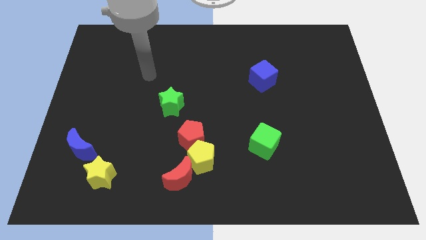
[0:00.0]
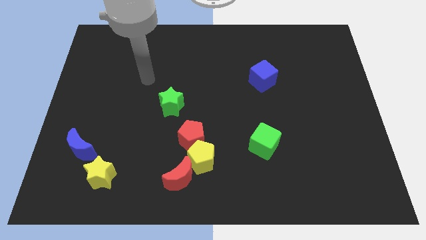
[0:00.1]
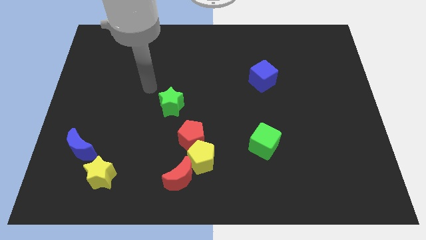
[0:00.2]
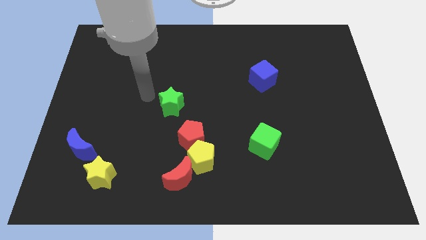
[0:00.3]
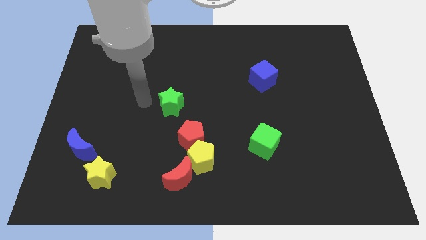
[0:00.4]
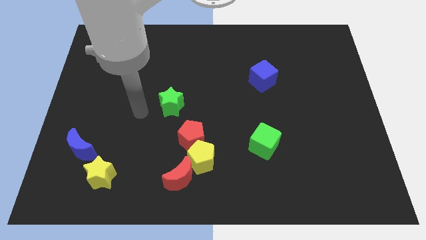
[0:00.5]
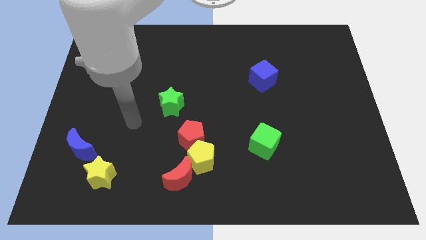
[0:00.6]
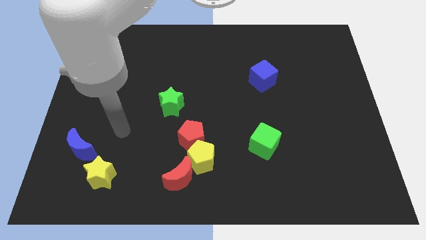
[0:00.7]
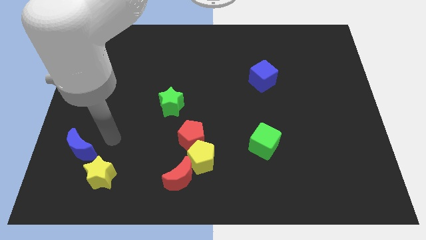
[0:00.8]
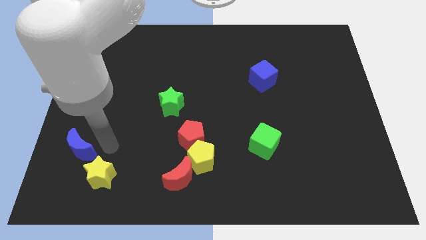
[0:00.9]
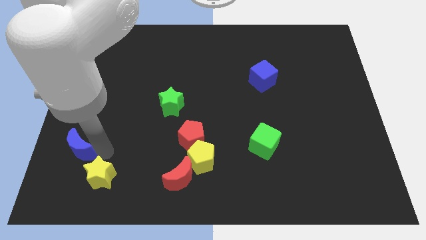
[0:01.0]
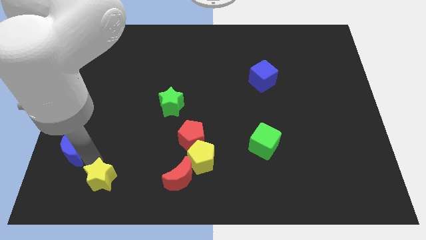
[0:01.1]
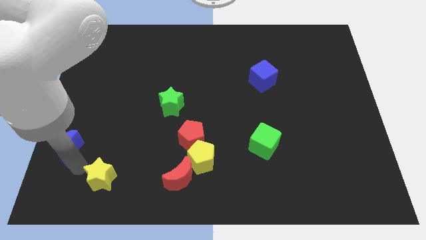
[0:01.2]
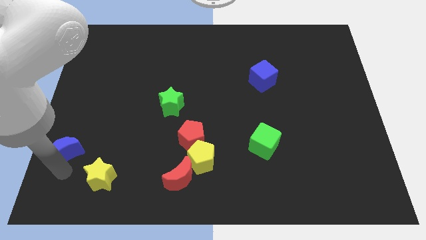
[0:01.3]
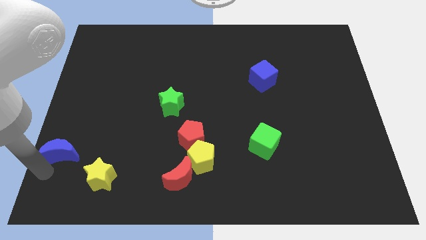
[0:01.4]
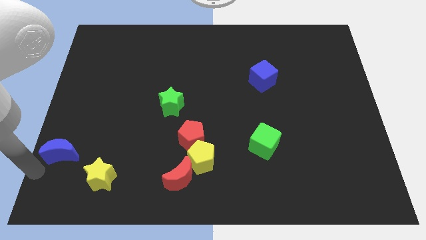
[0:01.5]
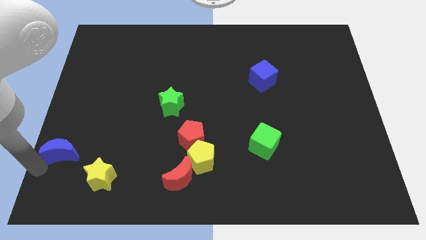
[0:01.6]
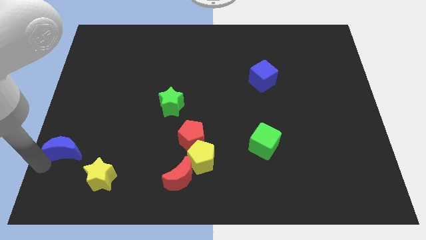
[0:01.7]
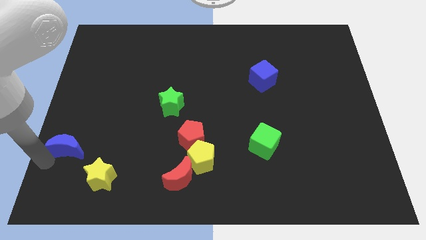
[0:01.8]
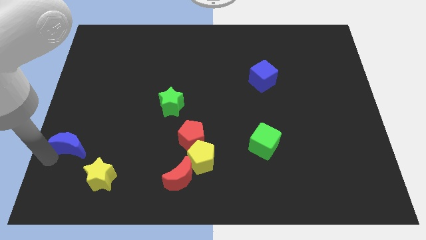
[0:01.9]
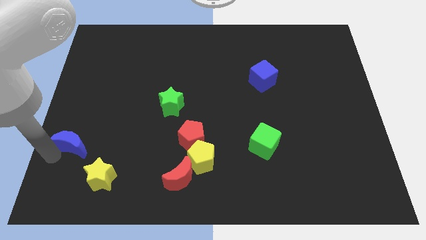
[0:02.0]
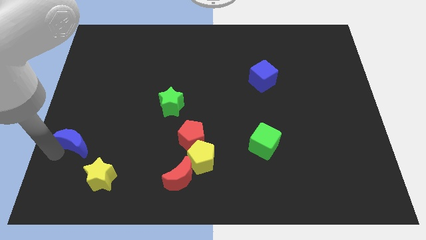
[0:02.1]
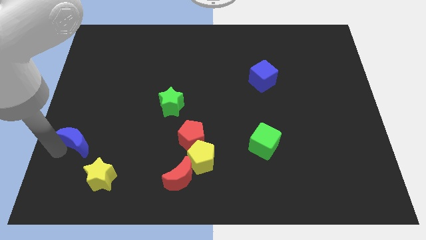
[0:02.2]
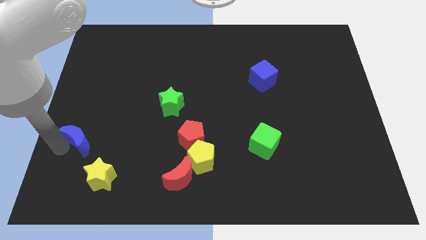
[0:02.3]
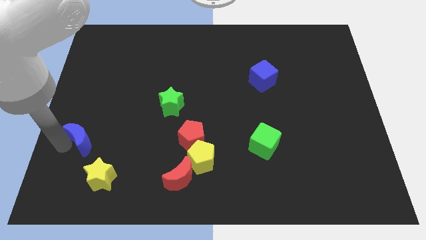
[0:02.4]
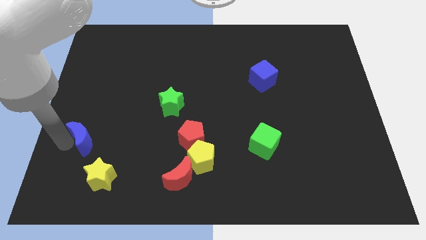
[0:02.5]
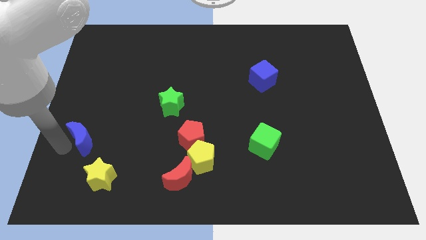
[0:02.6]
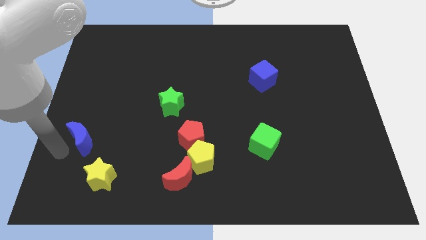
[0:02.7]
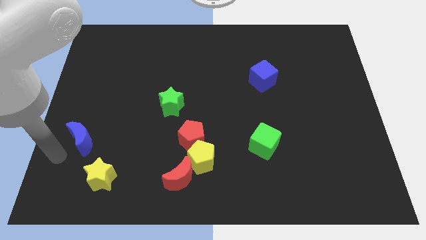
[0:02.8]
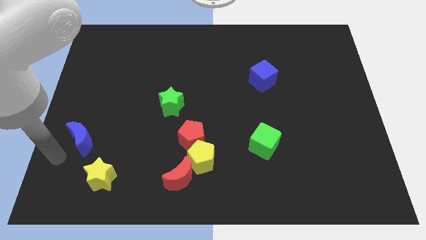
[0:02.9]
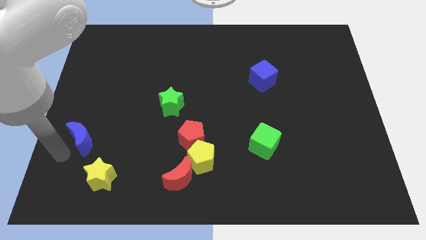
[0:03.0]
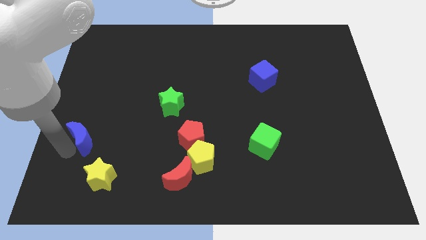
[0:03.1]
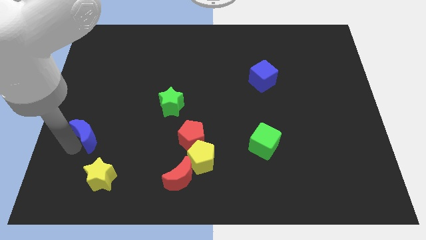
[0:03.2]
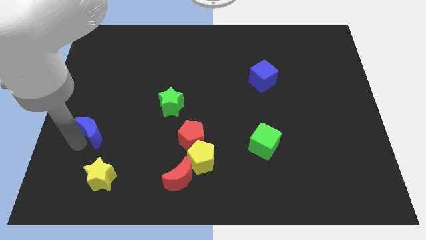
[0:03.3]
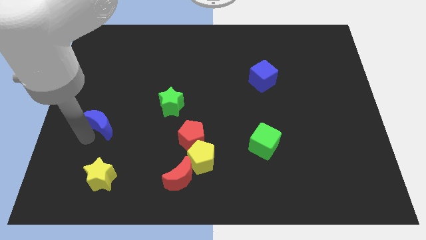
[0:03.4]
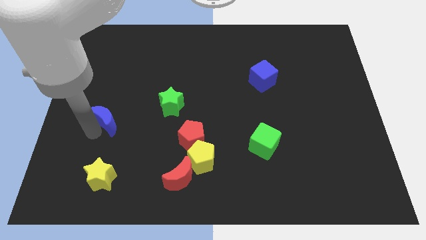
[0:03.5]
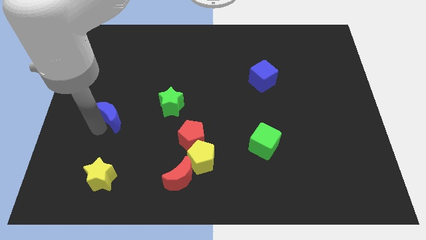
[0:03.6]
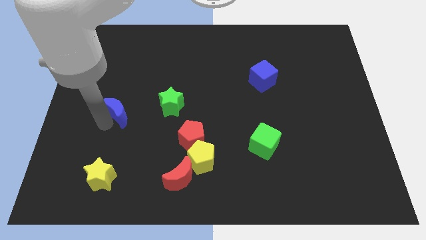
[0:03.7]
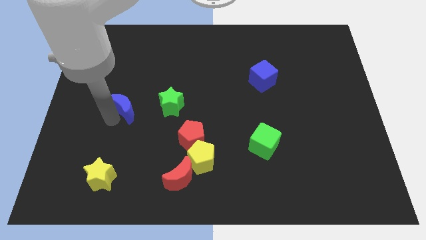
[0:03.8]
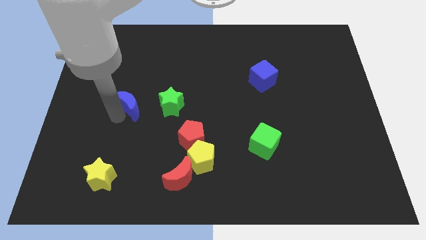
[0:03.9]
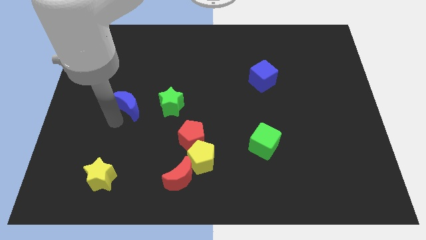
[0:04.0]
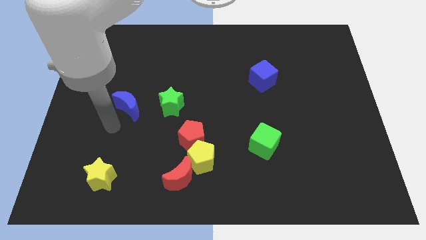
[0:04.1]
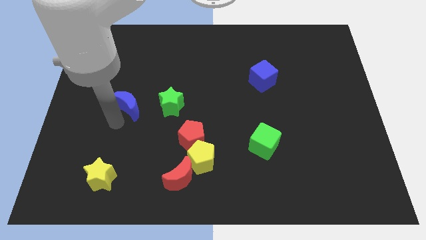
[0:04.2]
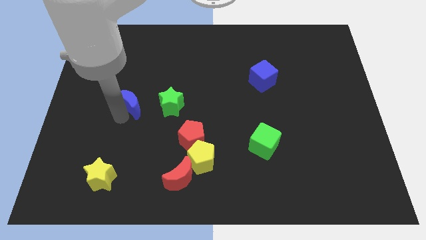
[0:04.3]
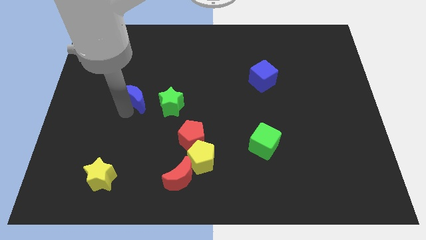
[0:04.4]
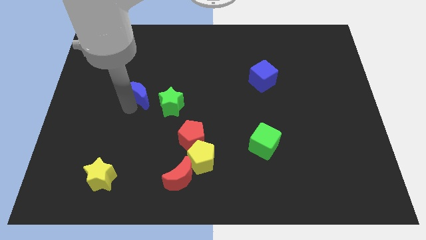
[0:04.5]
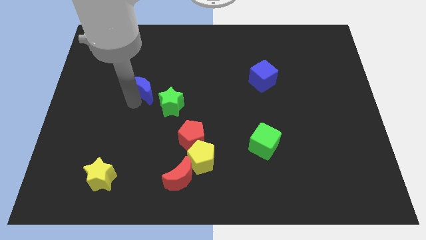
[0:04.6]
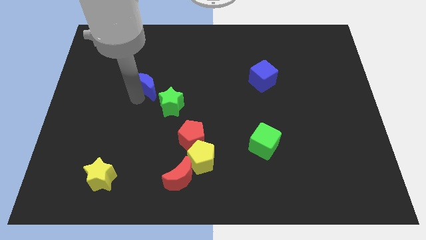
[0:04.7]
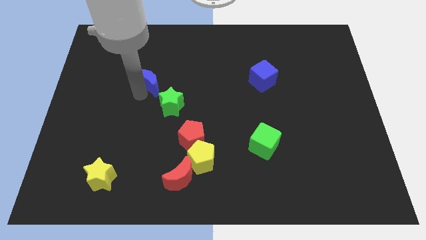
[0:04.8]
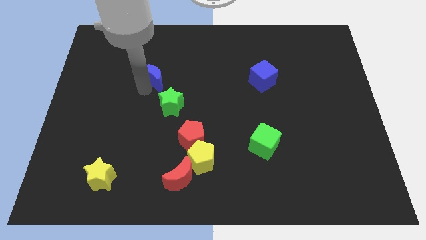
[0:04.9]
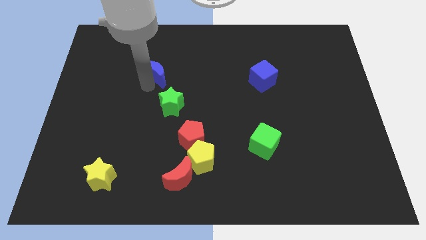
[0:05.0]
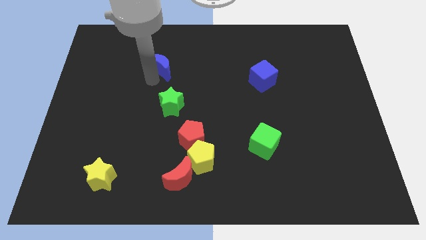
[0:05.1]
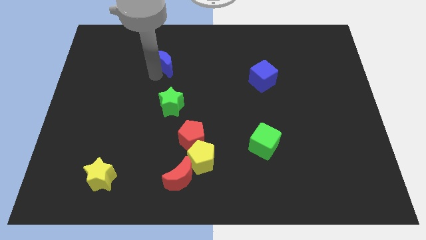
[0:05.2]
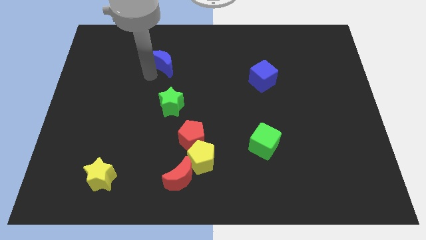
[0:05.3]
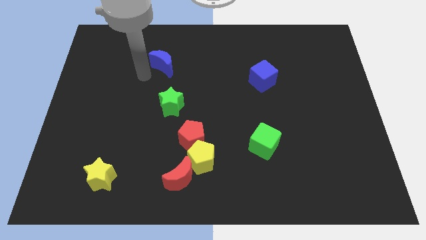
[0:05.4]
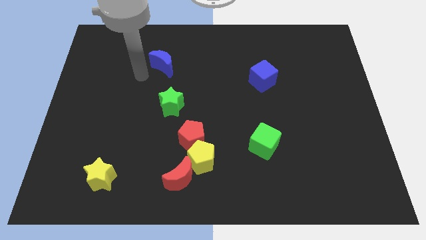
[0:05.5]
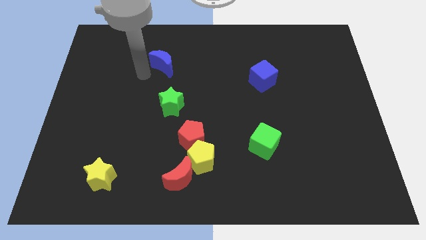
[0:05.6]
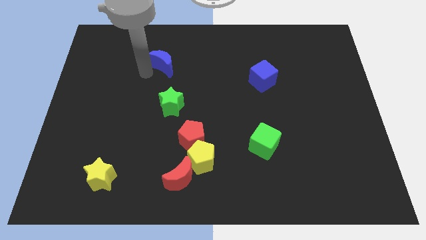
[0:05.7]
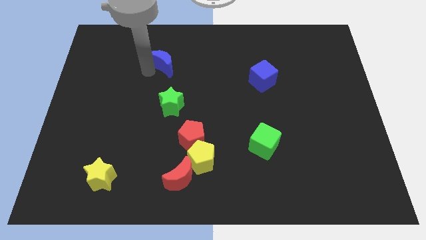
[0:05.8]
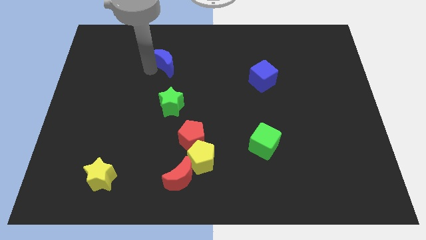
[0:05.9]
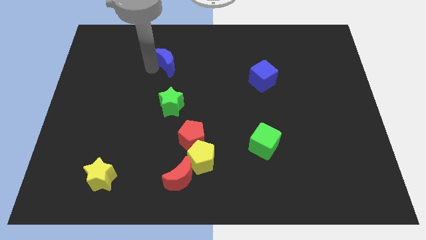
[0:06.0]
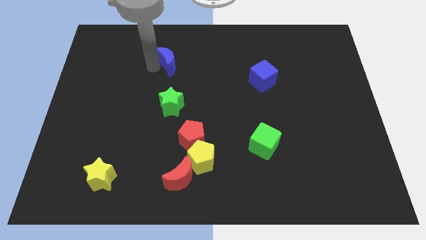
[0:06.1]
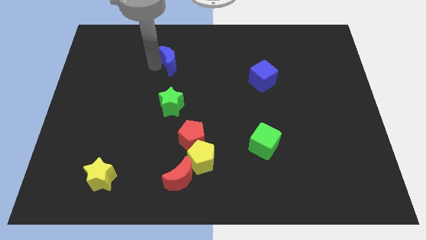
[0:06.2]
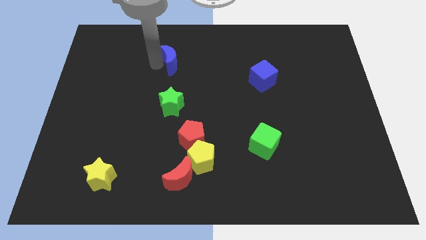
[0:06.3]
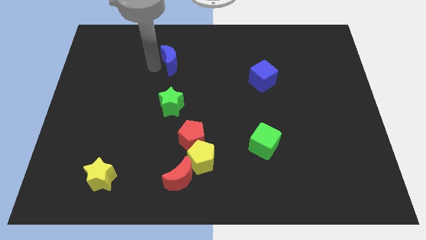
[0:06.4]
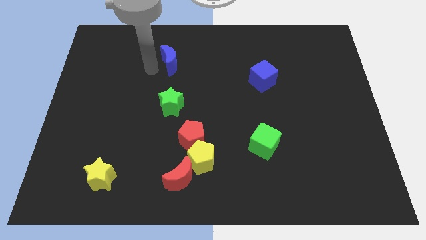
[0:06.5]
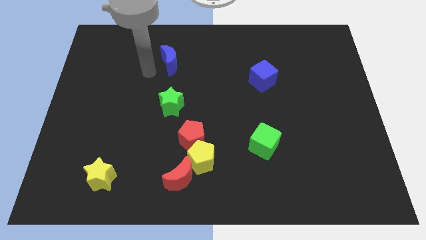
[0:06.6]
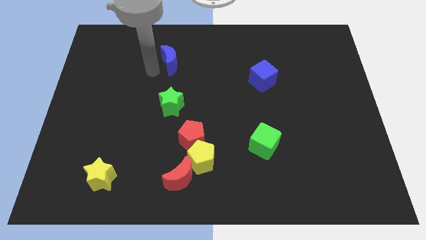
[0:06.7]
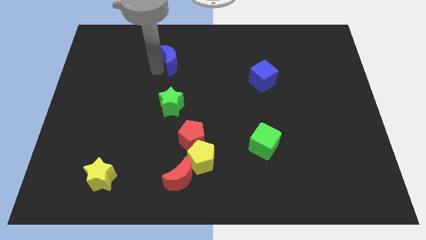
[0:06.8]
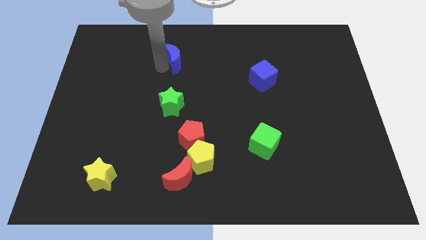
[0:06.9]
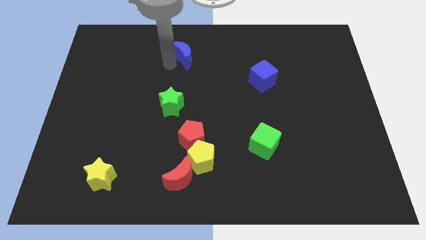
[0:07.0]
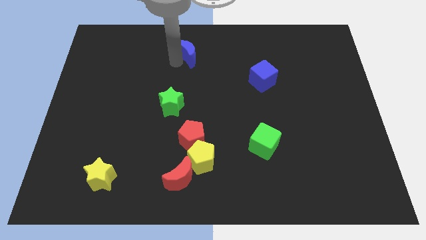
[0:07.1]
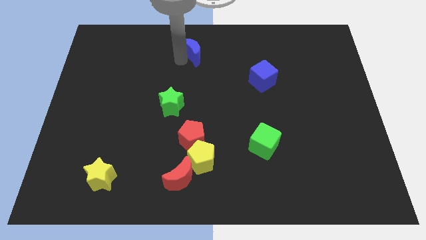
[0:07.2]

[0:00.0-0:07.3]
push the blue moon to the top
